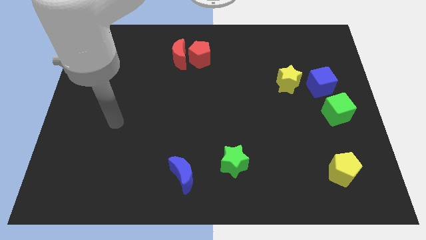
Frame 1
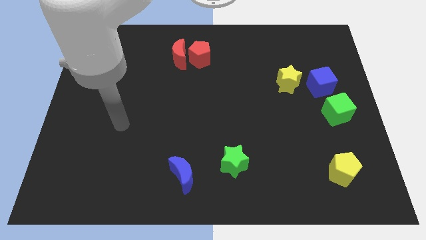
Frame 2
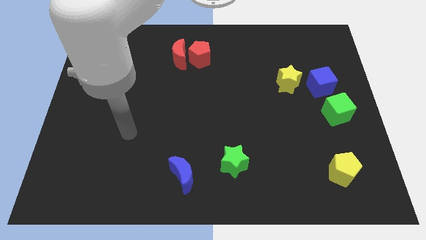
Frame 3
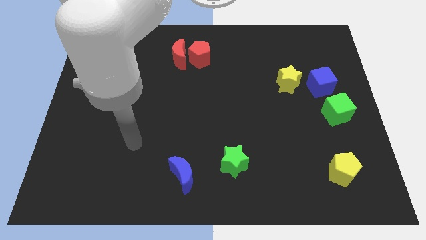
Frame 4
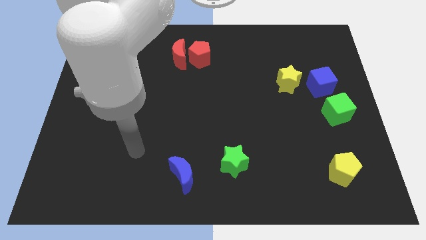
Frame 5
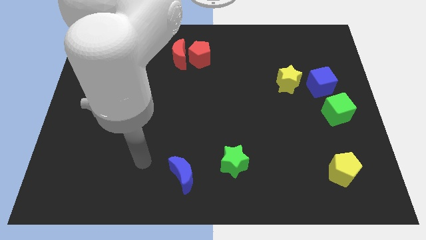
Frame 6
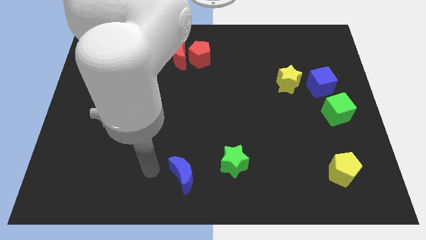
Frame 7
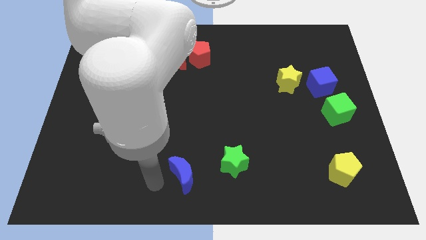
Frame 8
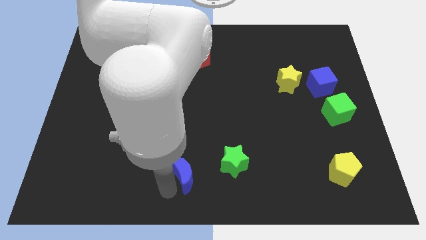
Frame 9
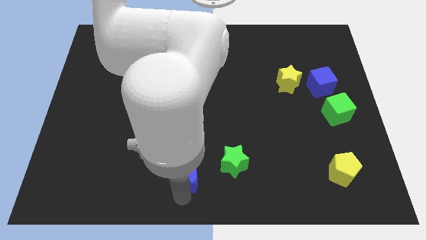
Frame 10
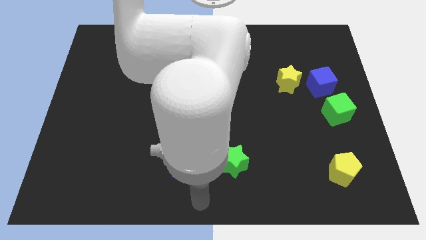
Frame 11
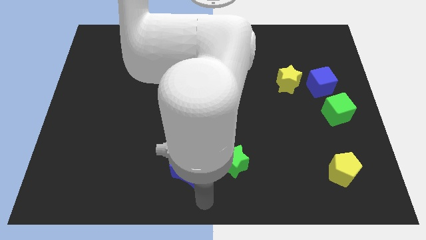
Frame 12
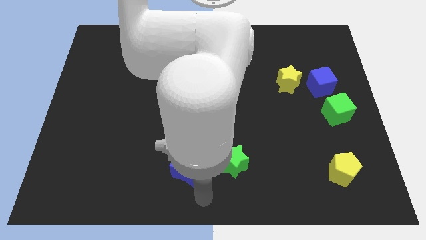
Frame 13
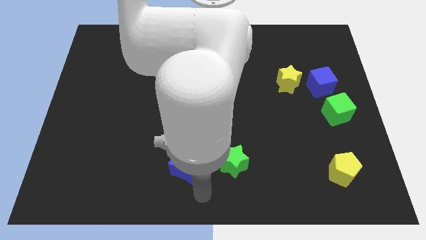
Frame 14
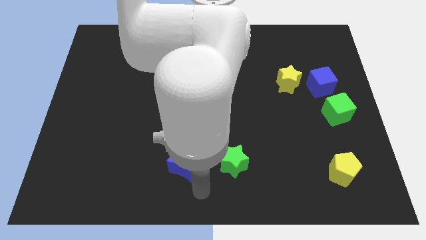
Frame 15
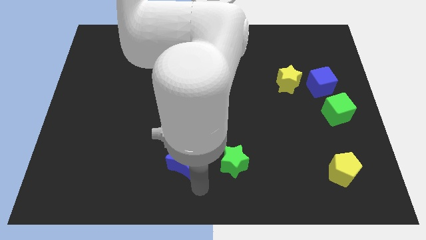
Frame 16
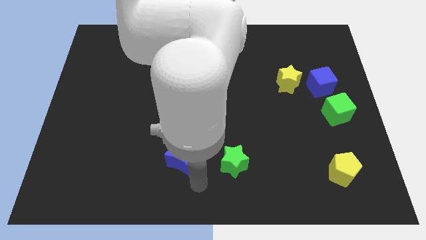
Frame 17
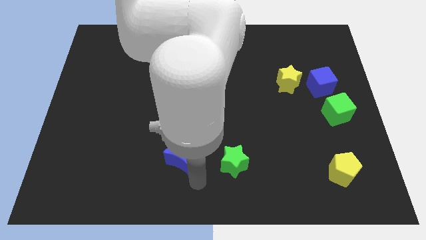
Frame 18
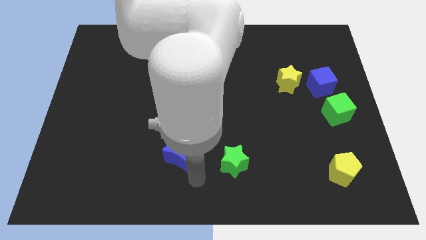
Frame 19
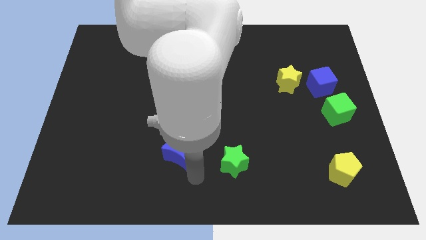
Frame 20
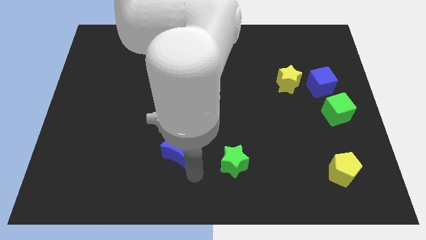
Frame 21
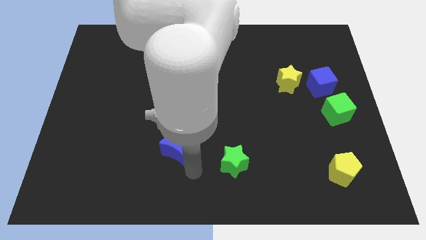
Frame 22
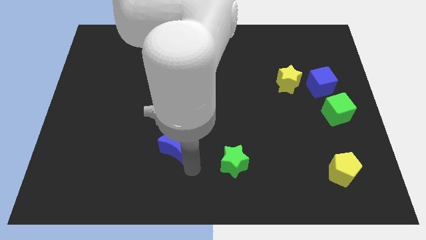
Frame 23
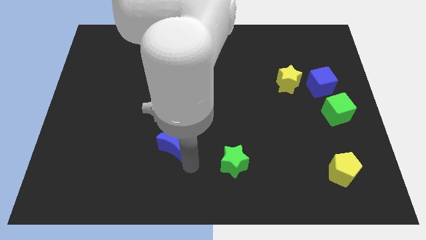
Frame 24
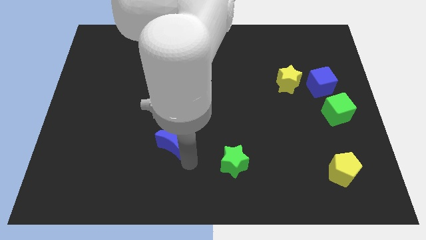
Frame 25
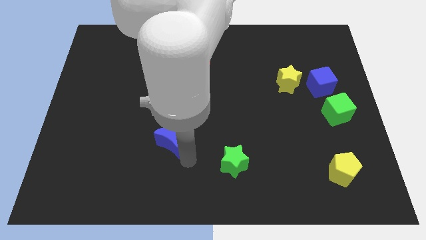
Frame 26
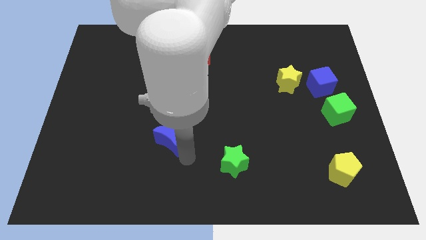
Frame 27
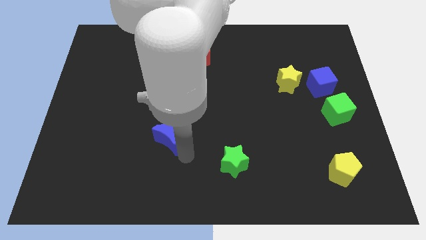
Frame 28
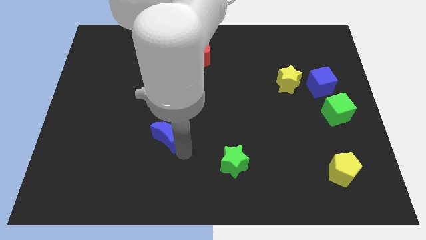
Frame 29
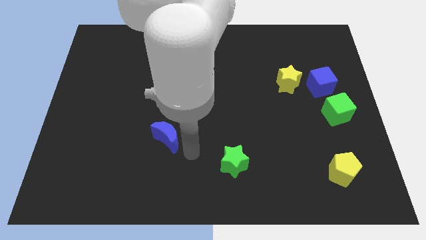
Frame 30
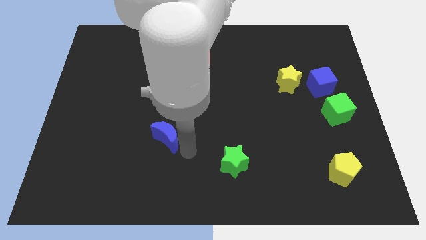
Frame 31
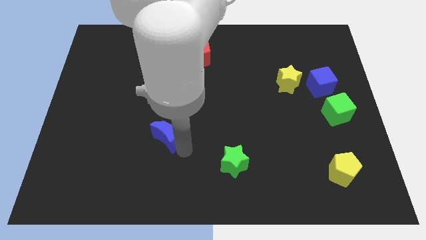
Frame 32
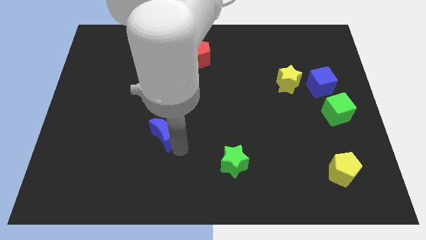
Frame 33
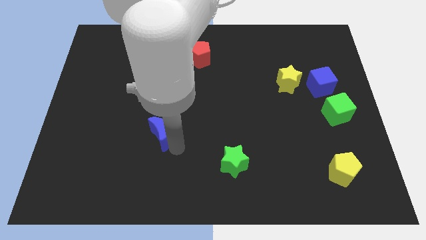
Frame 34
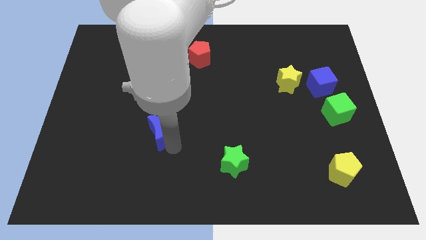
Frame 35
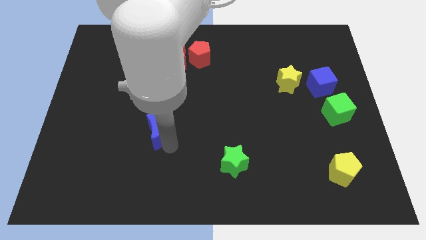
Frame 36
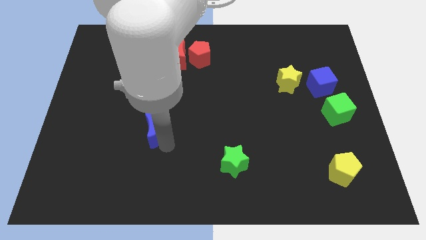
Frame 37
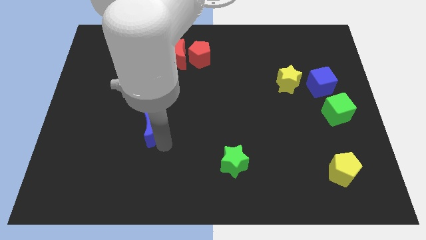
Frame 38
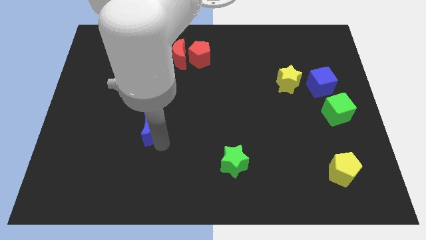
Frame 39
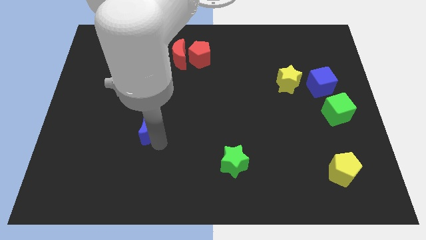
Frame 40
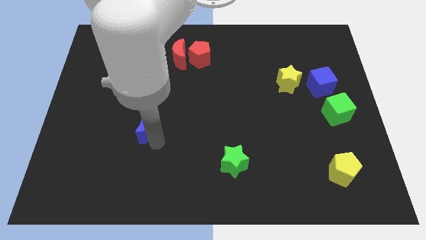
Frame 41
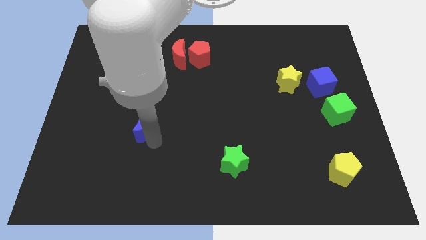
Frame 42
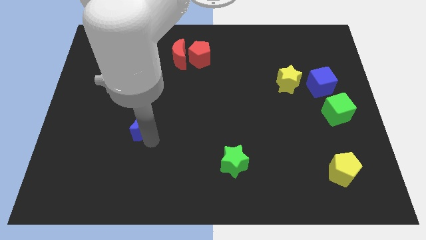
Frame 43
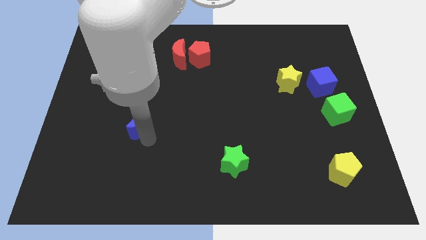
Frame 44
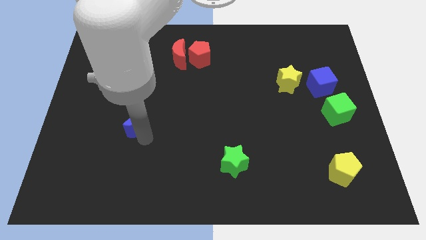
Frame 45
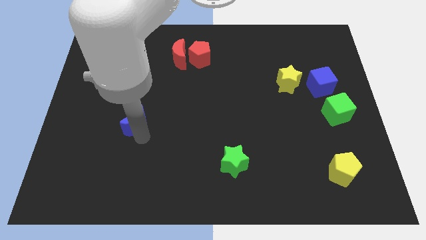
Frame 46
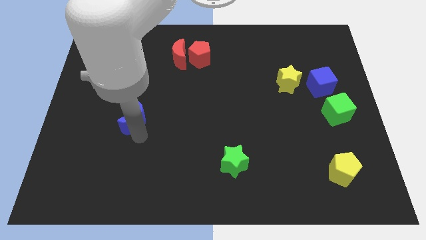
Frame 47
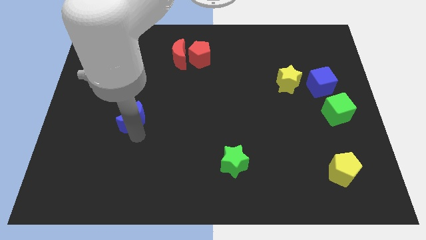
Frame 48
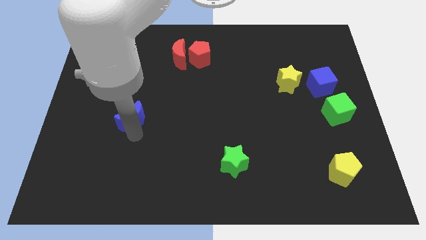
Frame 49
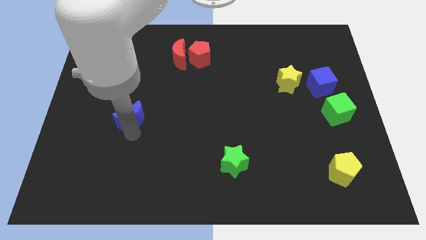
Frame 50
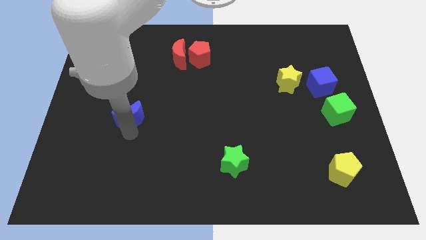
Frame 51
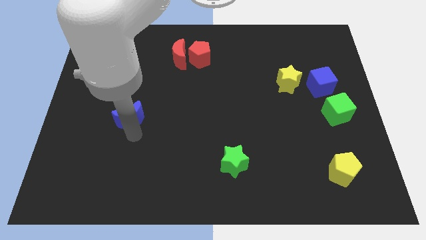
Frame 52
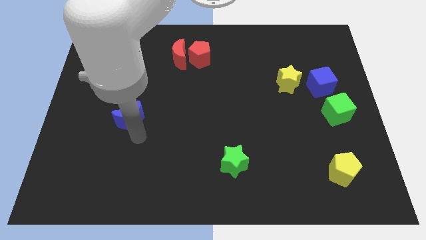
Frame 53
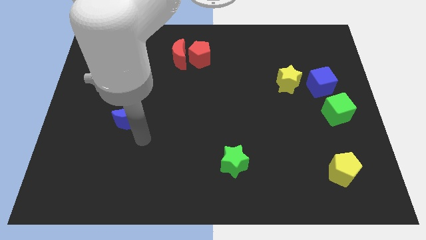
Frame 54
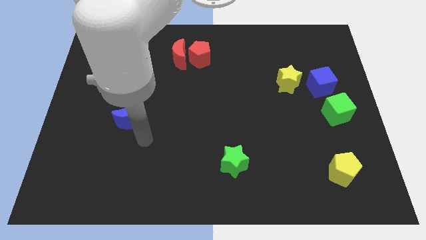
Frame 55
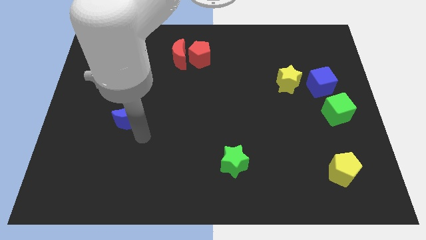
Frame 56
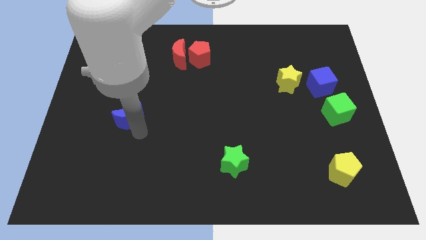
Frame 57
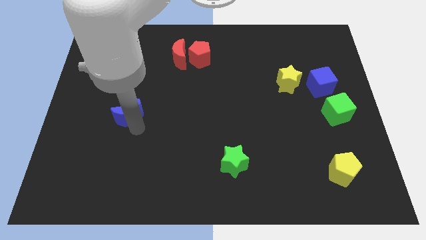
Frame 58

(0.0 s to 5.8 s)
slide the blue moon up and then left

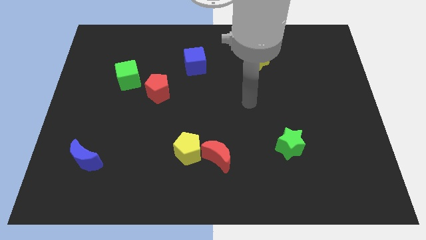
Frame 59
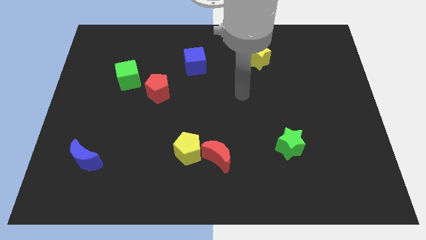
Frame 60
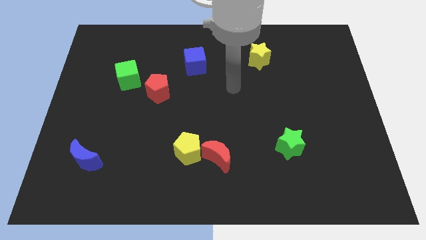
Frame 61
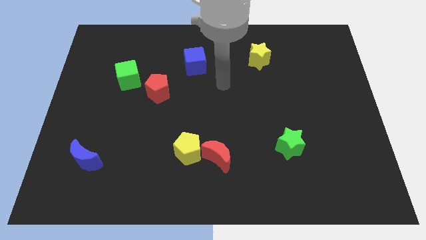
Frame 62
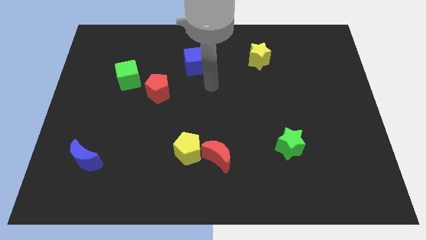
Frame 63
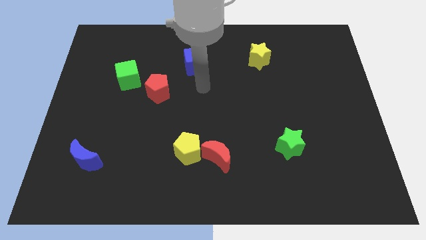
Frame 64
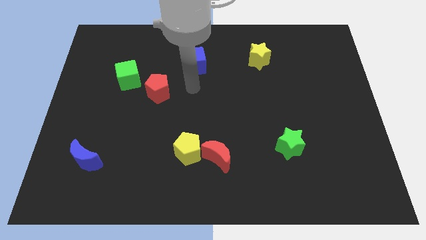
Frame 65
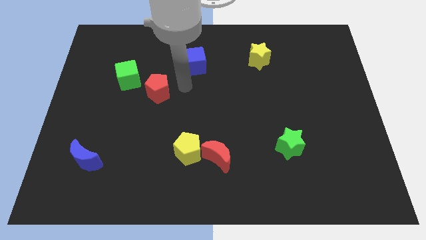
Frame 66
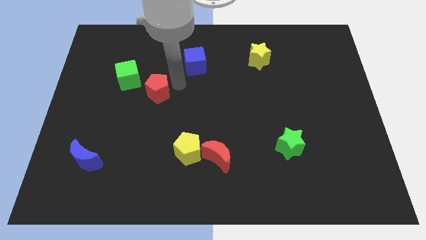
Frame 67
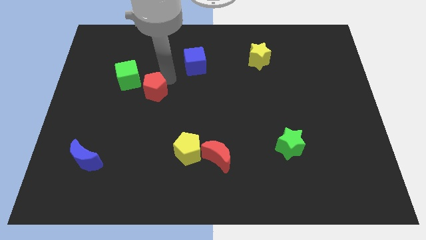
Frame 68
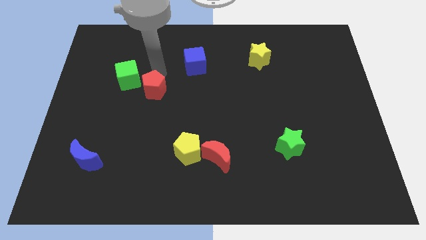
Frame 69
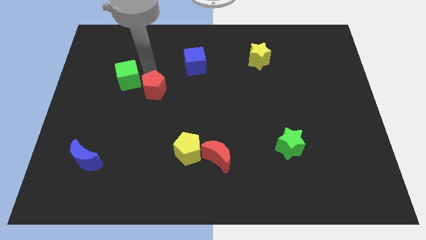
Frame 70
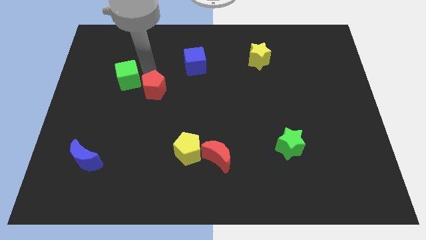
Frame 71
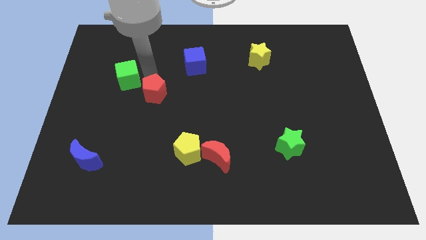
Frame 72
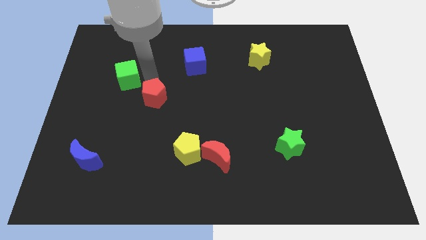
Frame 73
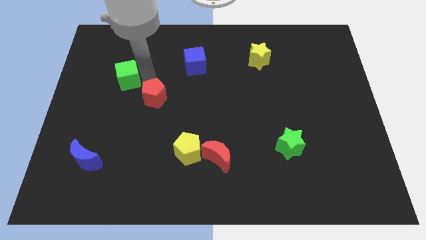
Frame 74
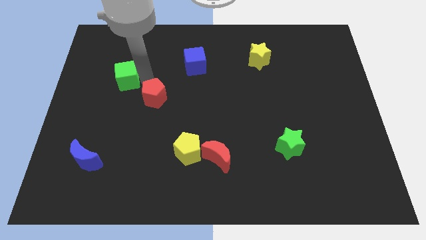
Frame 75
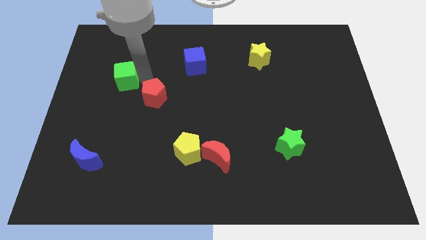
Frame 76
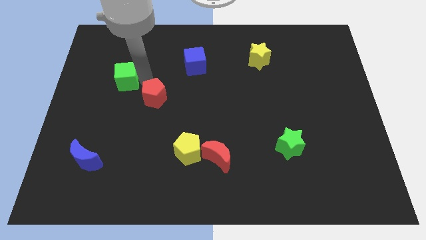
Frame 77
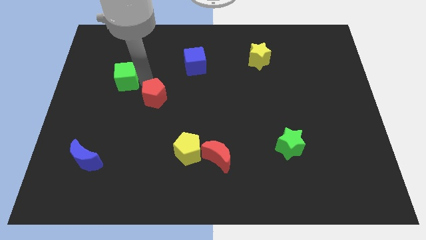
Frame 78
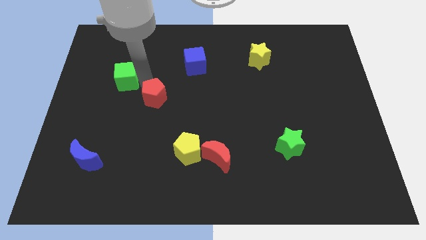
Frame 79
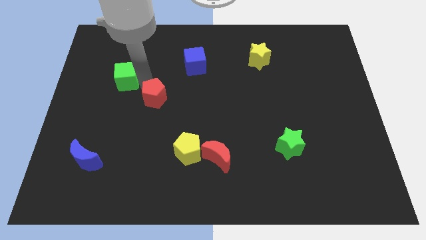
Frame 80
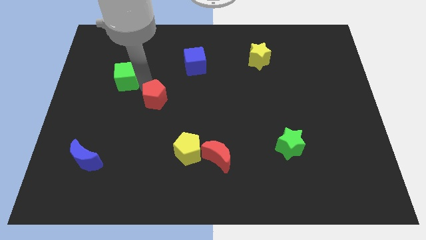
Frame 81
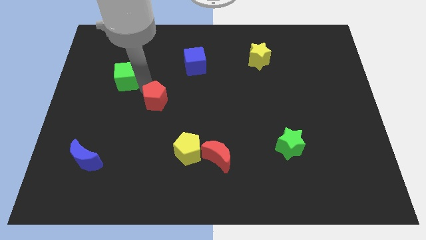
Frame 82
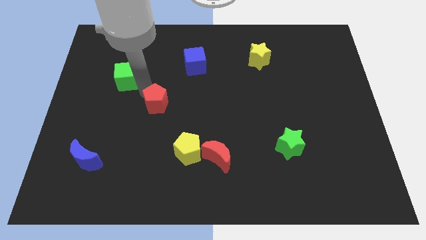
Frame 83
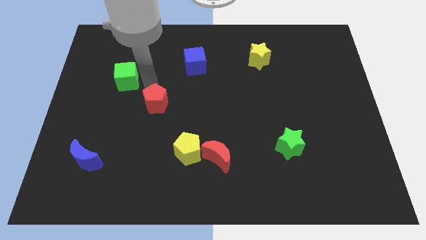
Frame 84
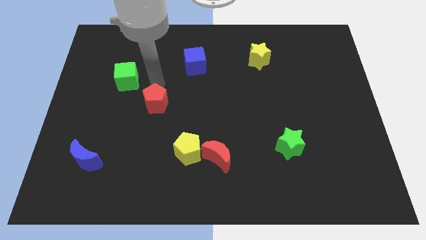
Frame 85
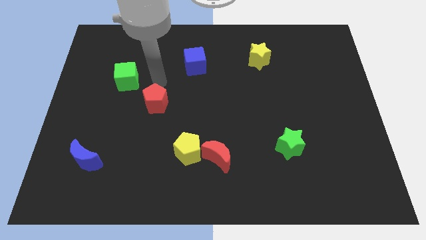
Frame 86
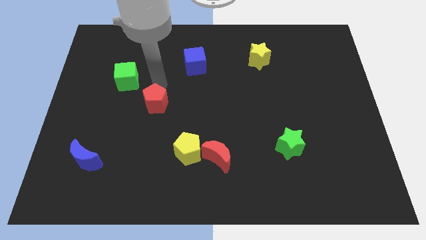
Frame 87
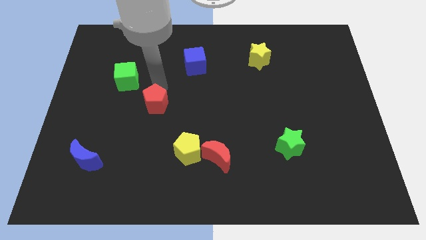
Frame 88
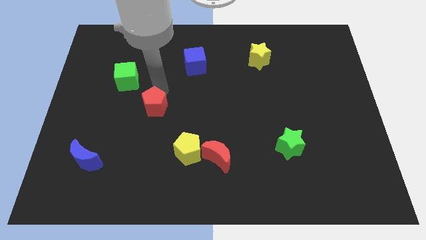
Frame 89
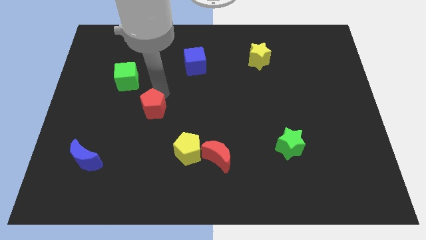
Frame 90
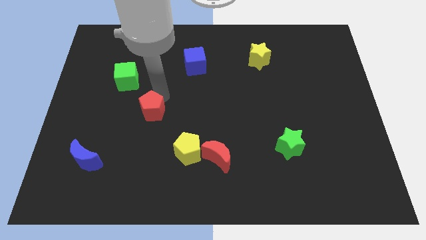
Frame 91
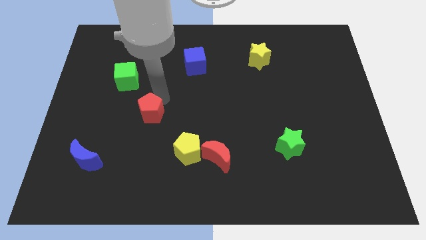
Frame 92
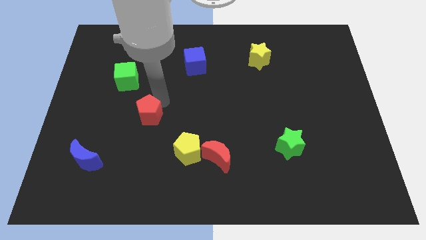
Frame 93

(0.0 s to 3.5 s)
push the red pentagon downwards a little
